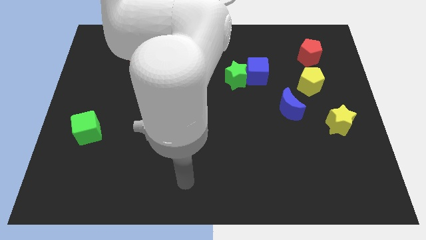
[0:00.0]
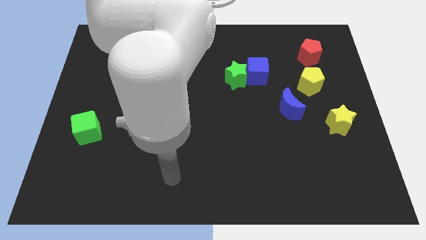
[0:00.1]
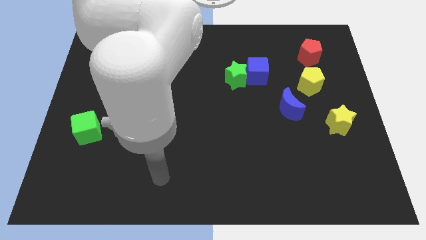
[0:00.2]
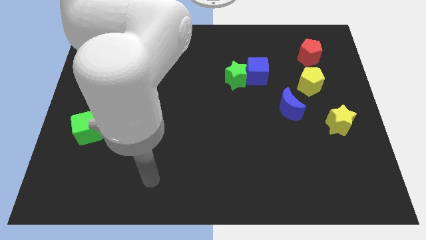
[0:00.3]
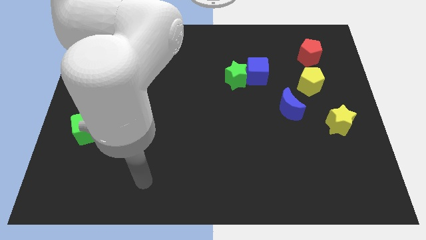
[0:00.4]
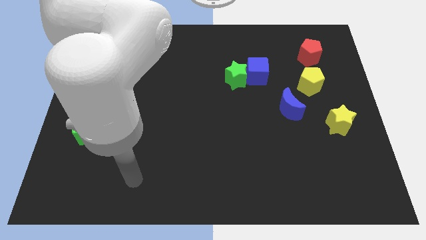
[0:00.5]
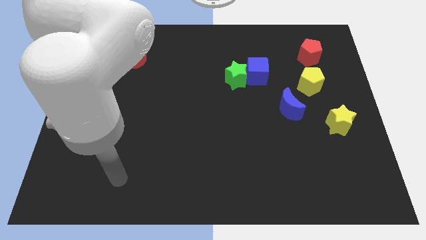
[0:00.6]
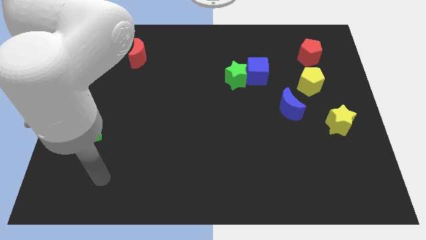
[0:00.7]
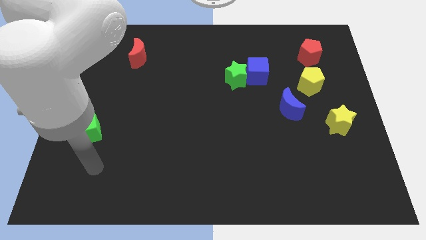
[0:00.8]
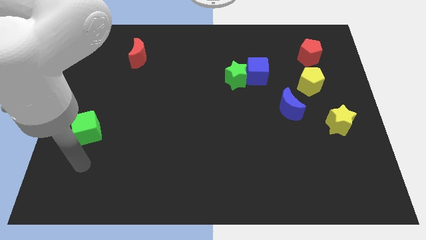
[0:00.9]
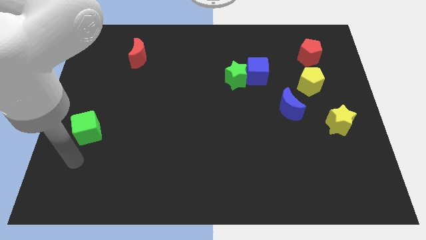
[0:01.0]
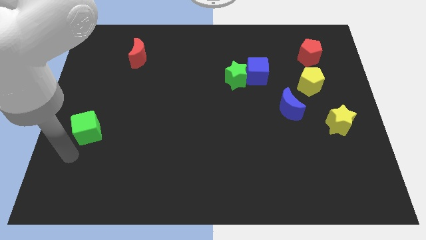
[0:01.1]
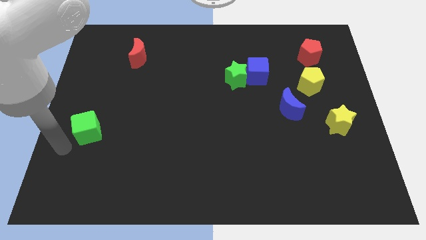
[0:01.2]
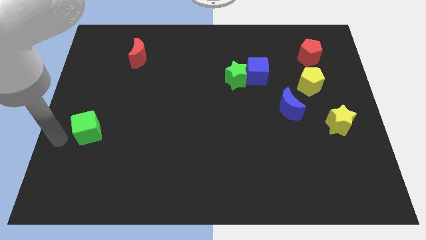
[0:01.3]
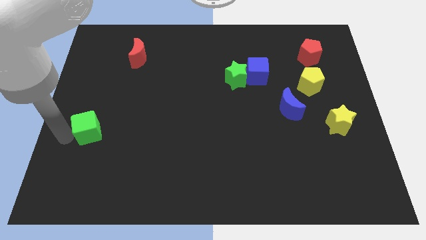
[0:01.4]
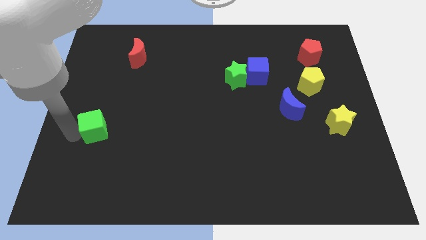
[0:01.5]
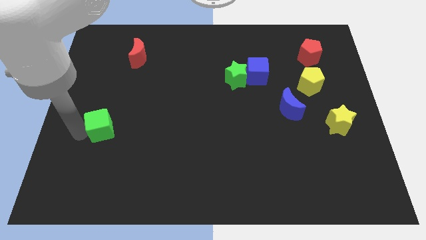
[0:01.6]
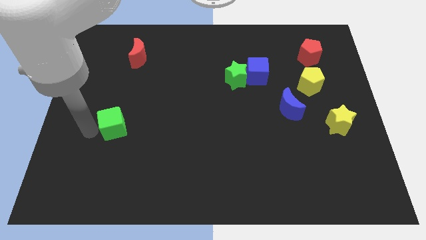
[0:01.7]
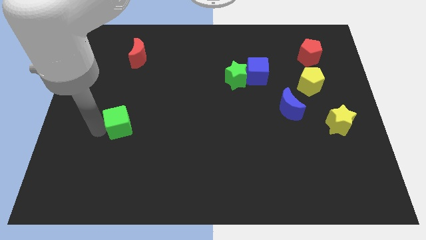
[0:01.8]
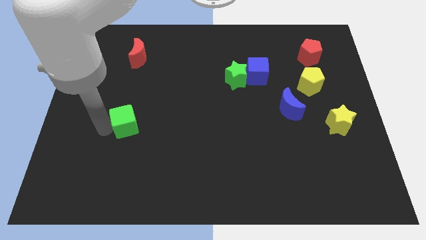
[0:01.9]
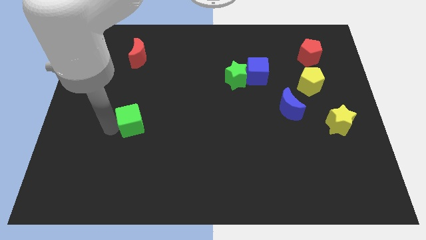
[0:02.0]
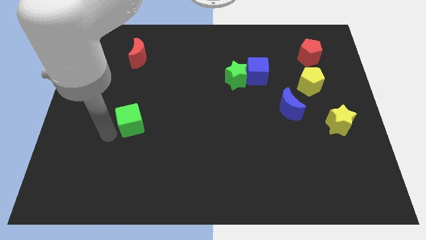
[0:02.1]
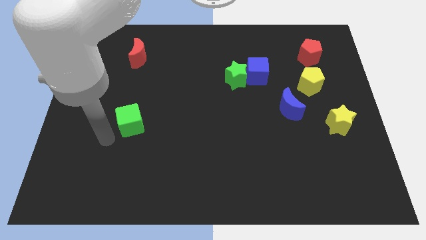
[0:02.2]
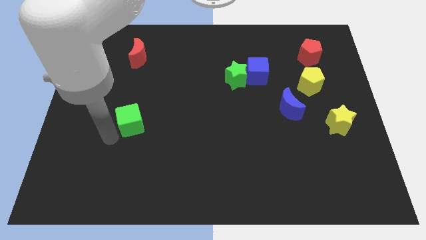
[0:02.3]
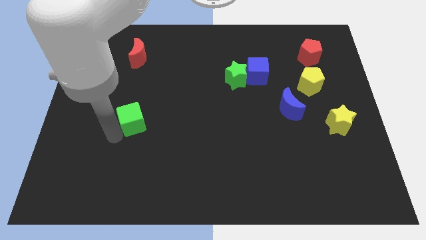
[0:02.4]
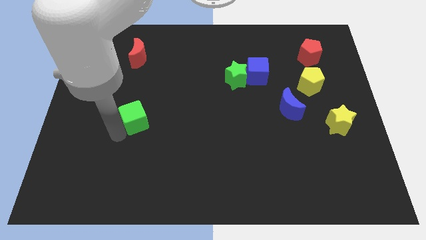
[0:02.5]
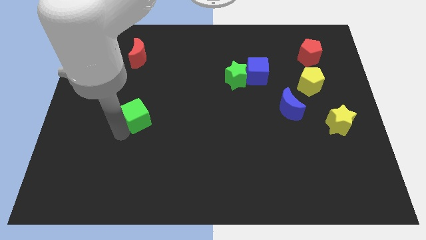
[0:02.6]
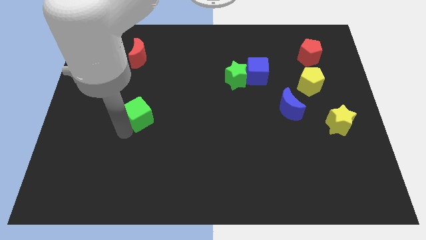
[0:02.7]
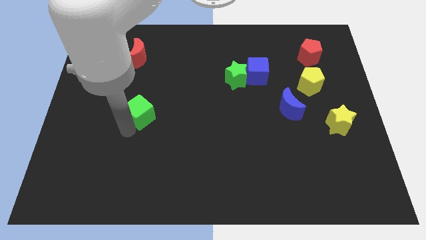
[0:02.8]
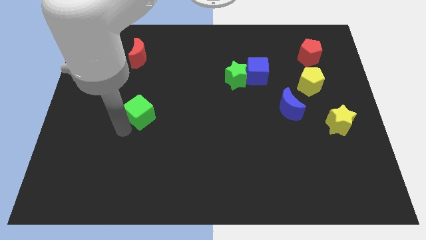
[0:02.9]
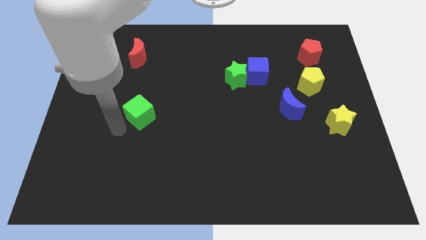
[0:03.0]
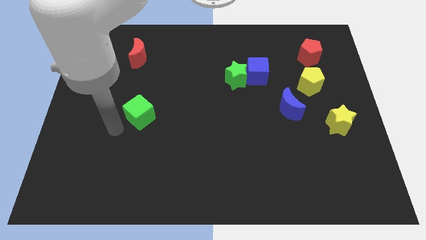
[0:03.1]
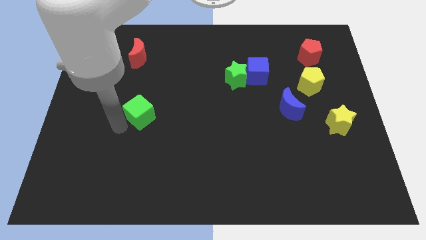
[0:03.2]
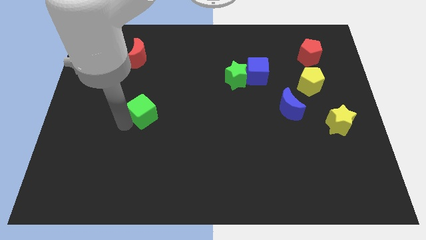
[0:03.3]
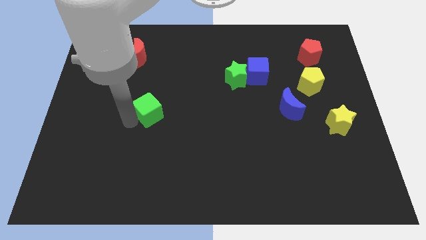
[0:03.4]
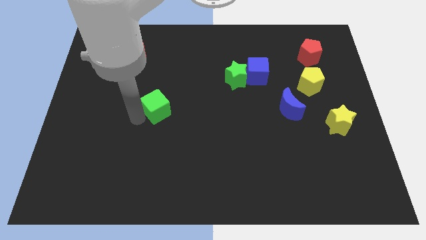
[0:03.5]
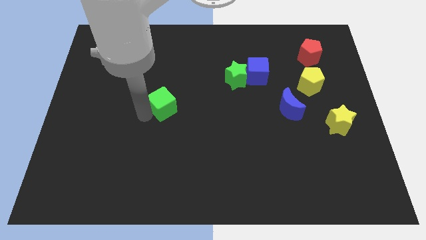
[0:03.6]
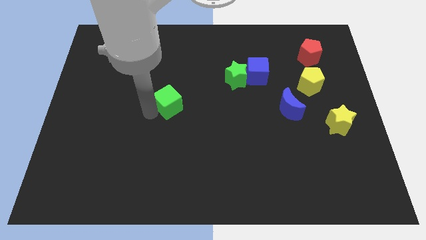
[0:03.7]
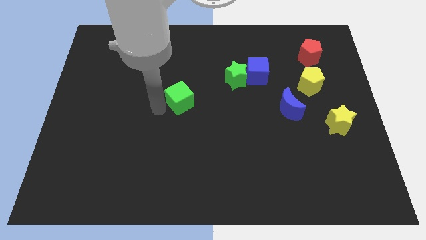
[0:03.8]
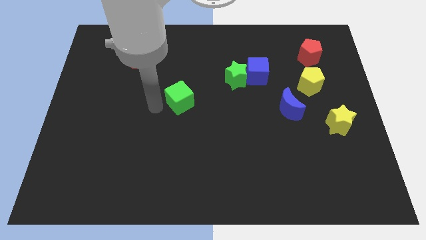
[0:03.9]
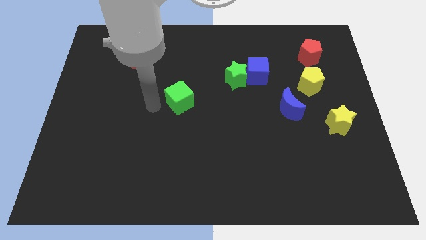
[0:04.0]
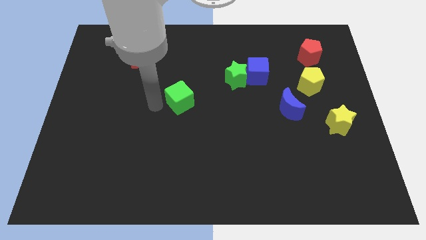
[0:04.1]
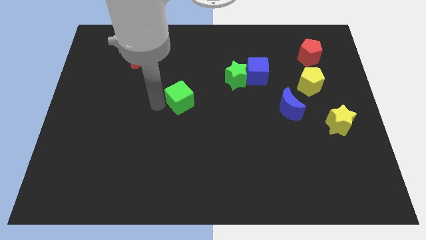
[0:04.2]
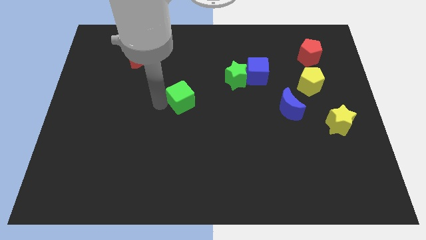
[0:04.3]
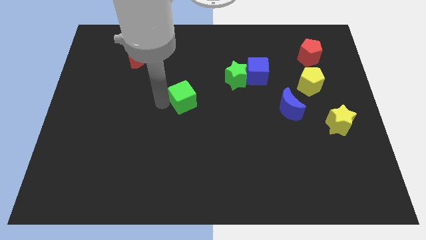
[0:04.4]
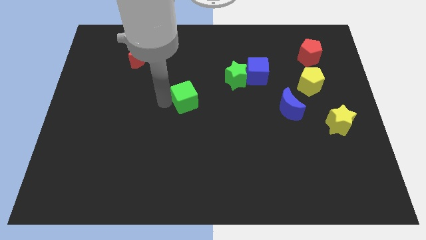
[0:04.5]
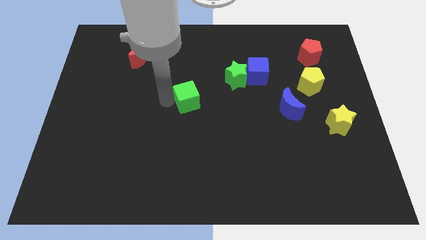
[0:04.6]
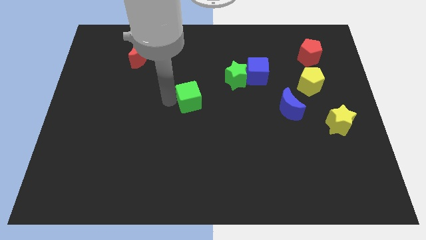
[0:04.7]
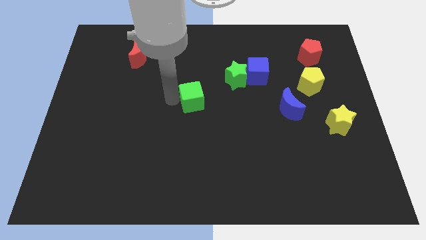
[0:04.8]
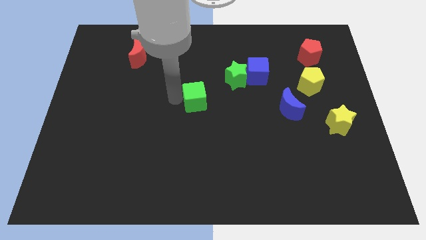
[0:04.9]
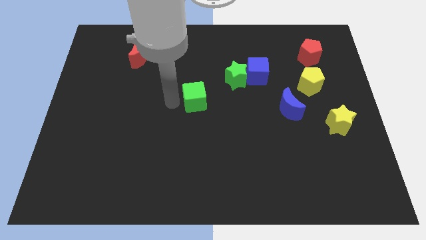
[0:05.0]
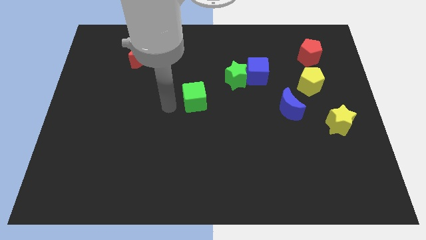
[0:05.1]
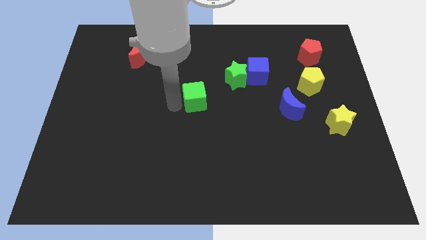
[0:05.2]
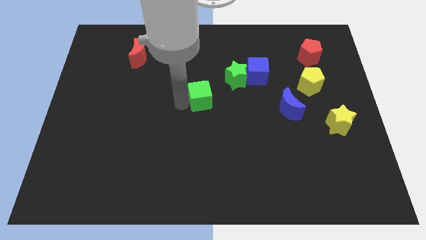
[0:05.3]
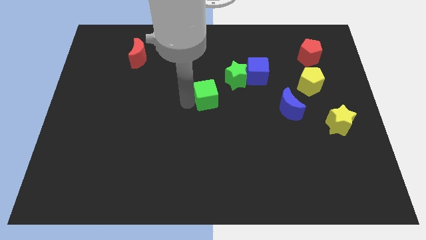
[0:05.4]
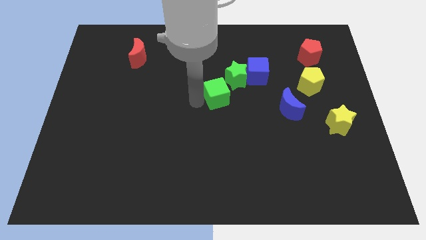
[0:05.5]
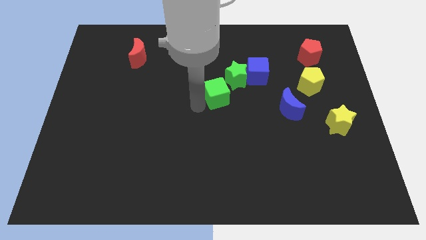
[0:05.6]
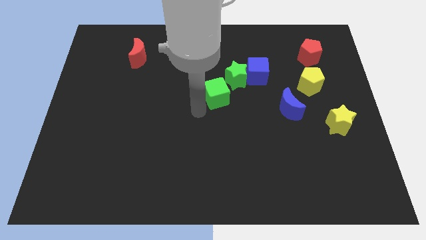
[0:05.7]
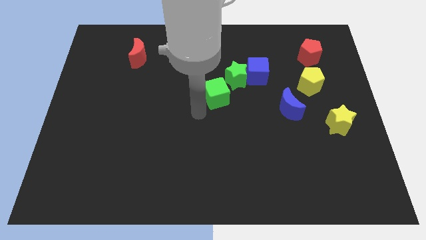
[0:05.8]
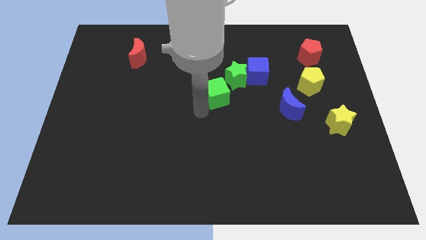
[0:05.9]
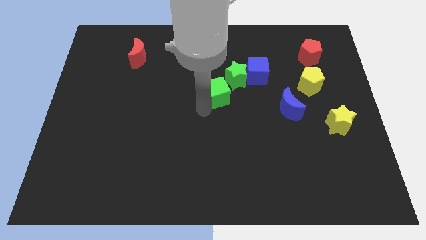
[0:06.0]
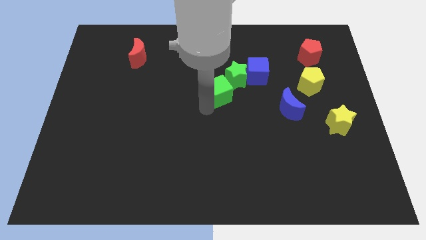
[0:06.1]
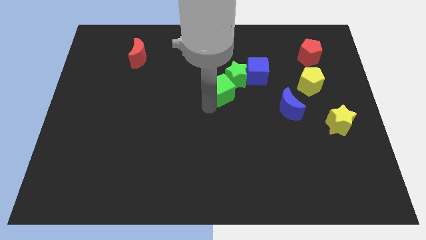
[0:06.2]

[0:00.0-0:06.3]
put the green cube to the green star
